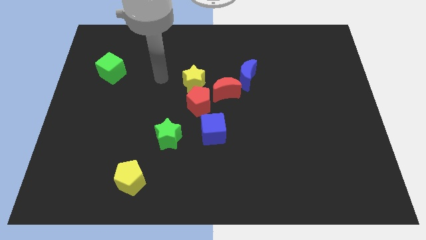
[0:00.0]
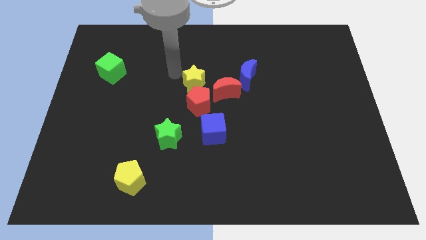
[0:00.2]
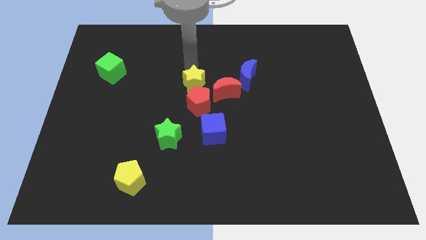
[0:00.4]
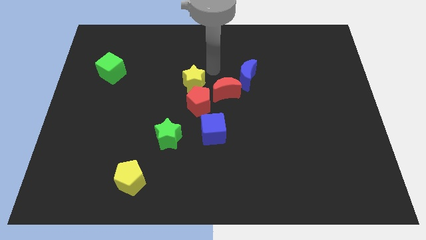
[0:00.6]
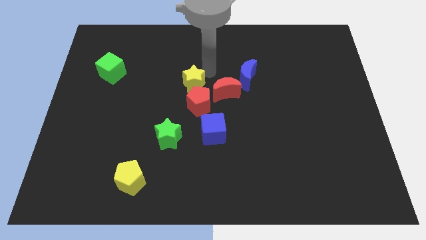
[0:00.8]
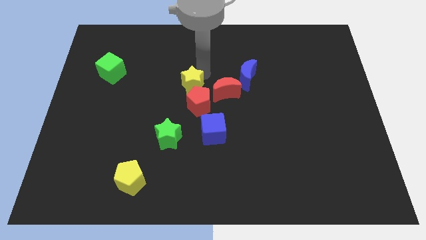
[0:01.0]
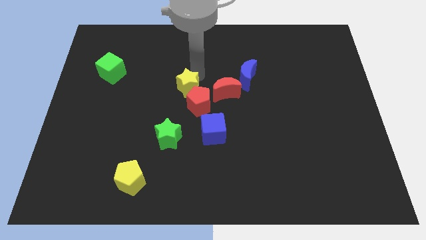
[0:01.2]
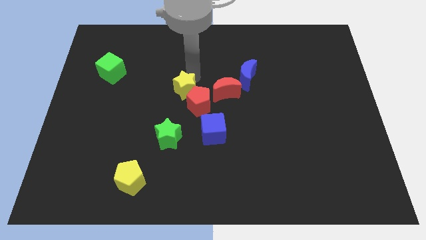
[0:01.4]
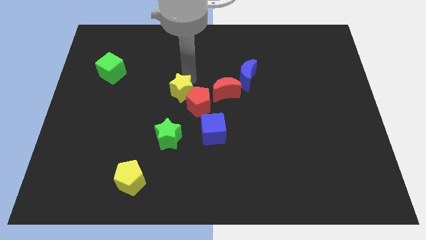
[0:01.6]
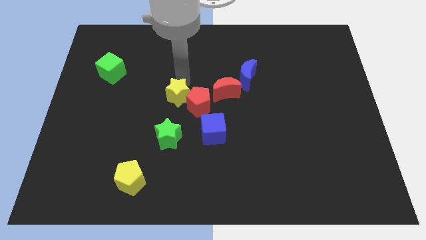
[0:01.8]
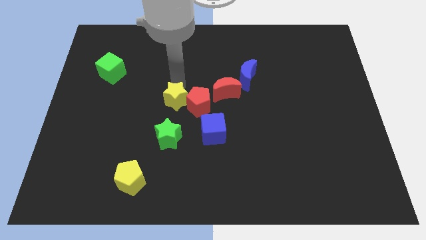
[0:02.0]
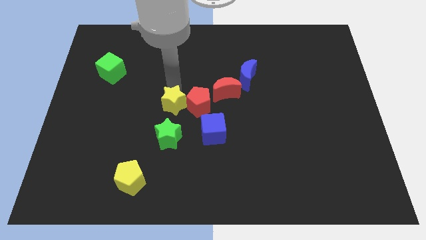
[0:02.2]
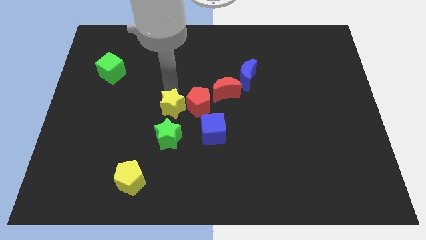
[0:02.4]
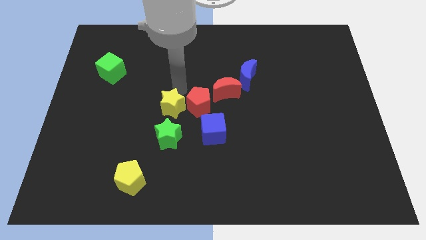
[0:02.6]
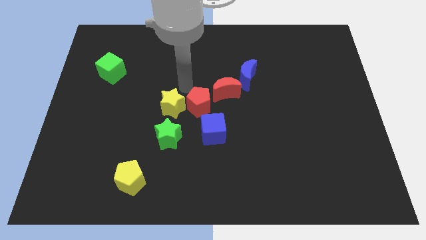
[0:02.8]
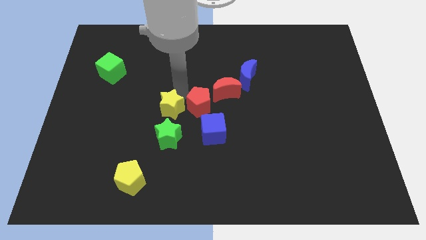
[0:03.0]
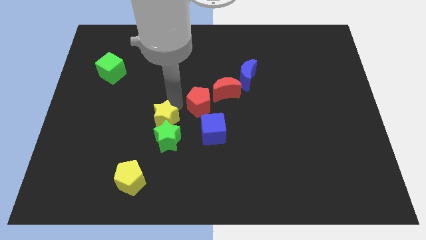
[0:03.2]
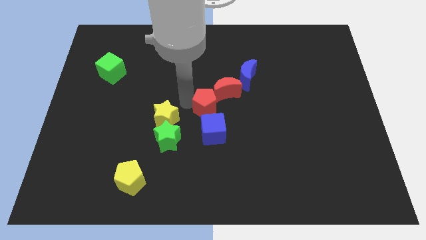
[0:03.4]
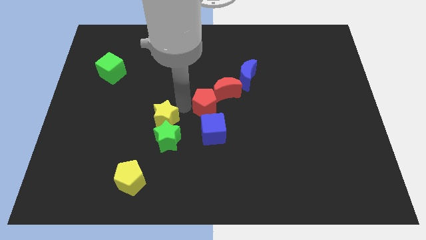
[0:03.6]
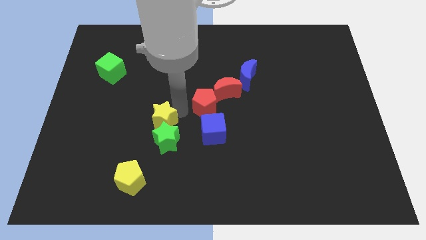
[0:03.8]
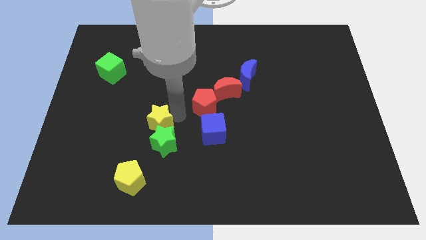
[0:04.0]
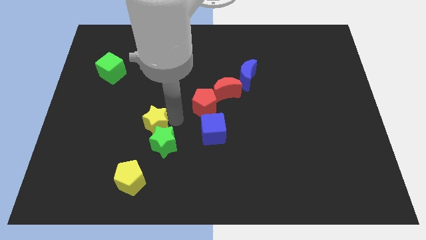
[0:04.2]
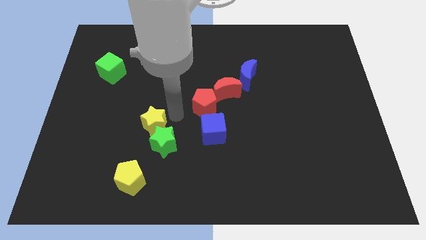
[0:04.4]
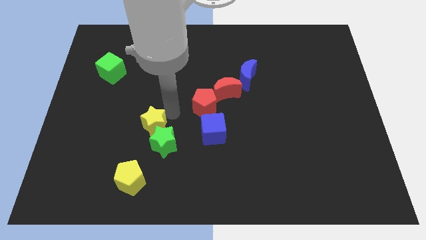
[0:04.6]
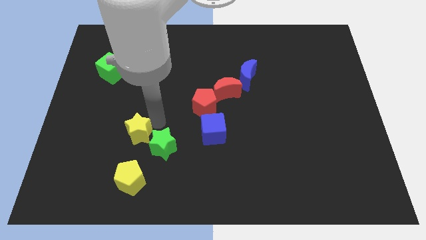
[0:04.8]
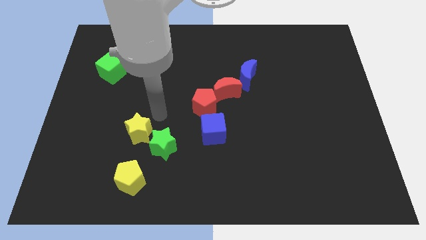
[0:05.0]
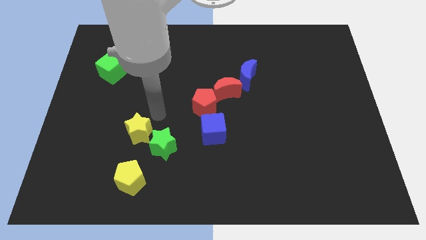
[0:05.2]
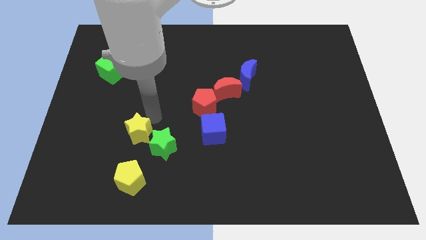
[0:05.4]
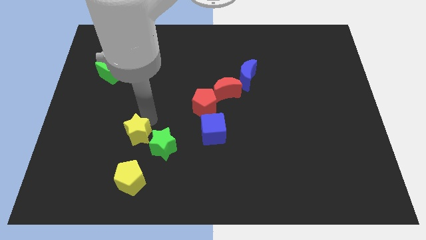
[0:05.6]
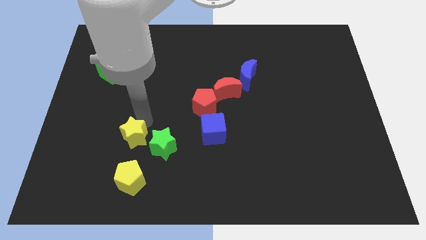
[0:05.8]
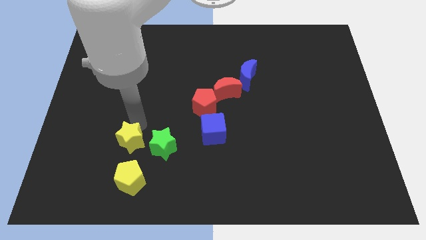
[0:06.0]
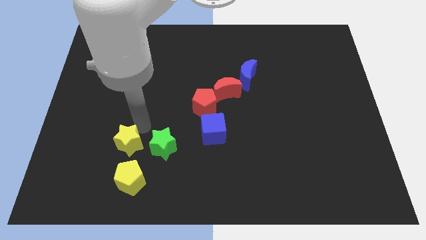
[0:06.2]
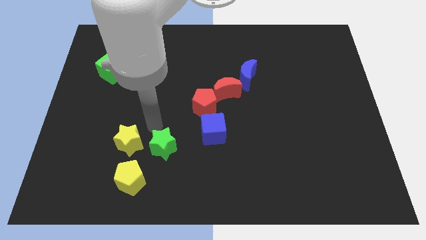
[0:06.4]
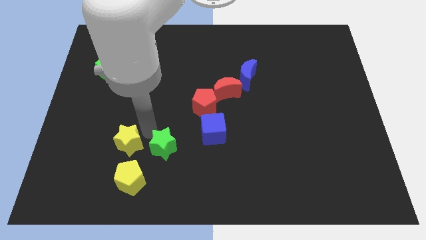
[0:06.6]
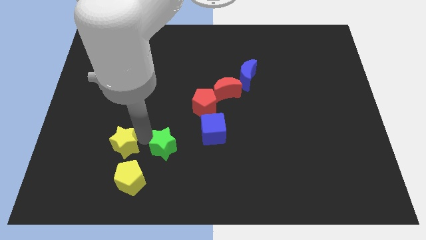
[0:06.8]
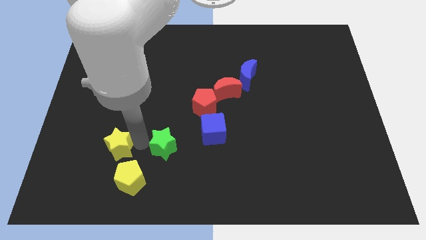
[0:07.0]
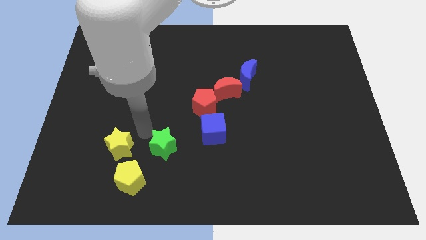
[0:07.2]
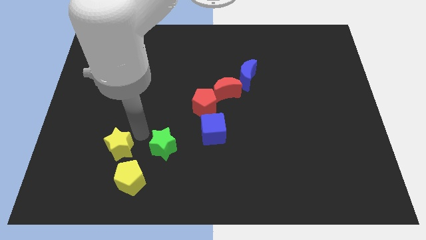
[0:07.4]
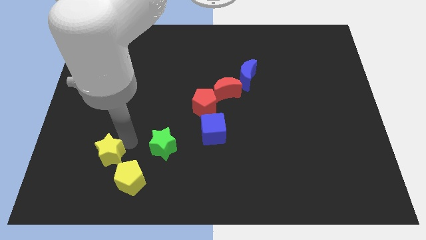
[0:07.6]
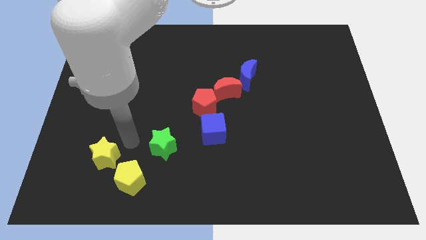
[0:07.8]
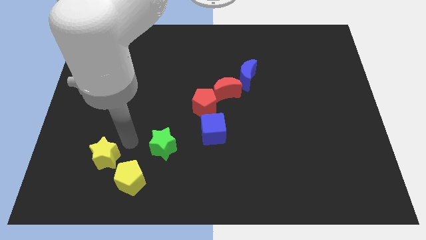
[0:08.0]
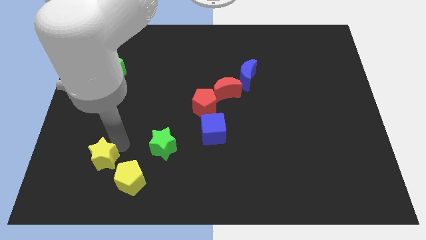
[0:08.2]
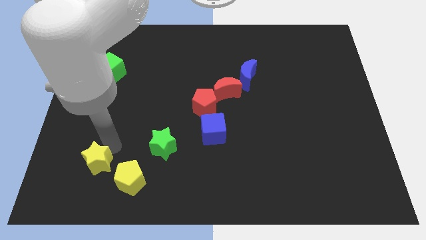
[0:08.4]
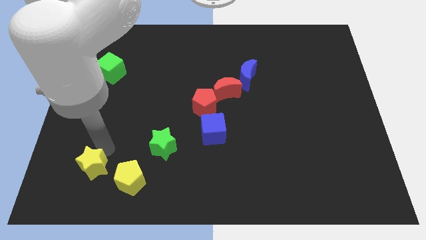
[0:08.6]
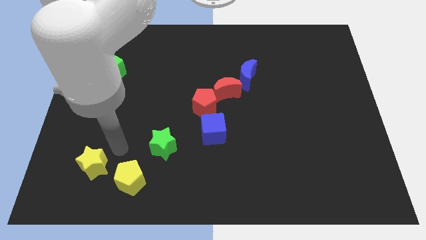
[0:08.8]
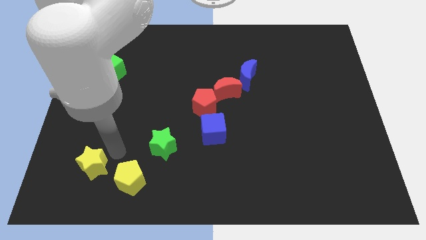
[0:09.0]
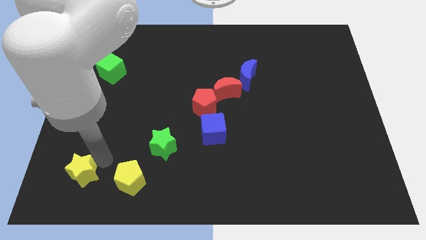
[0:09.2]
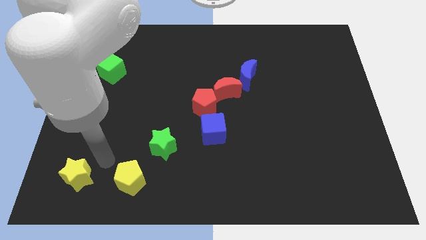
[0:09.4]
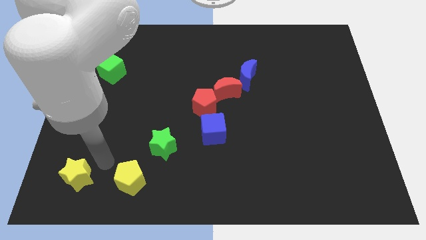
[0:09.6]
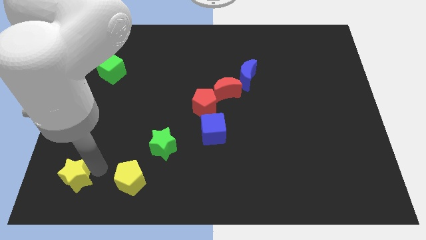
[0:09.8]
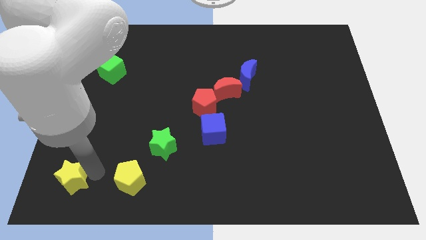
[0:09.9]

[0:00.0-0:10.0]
move the yellow star to the bottom left corner

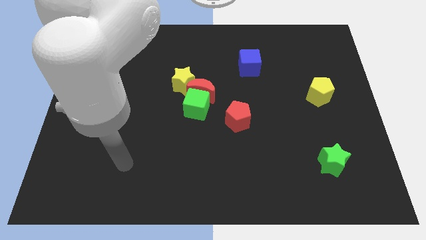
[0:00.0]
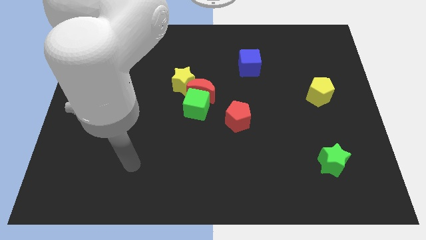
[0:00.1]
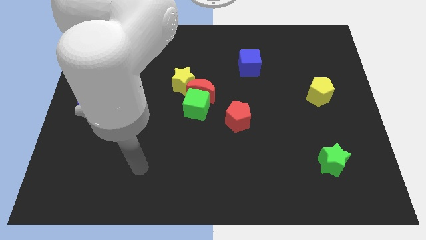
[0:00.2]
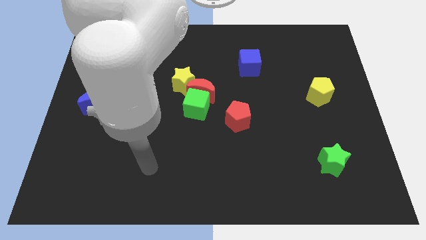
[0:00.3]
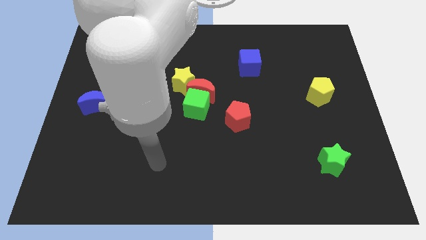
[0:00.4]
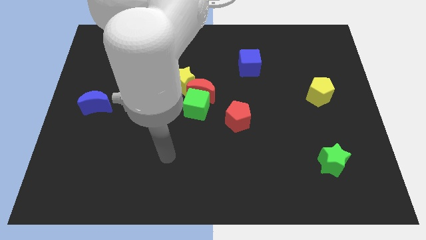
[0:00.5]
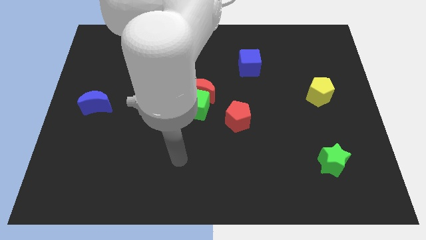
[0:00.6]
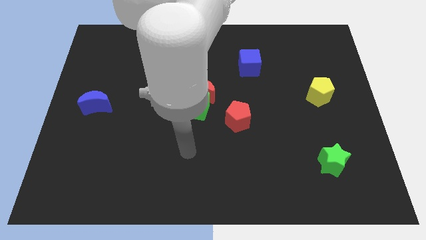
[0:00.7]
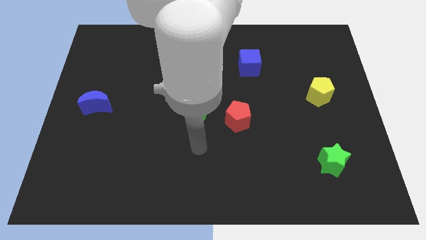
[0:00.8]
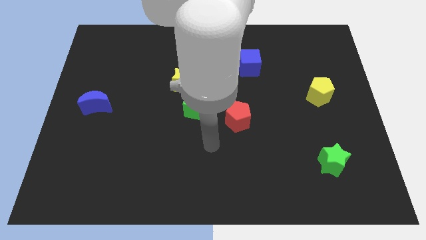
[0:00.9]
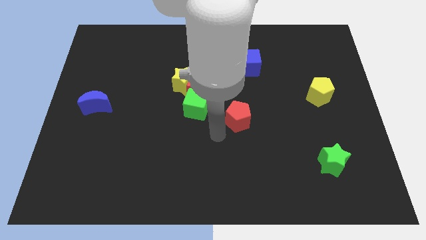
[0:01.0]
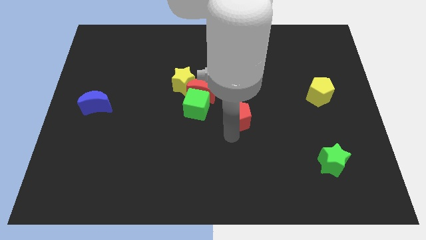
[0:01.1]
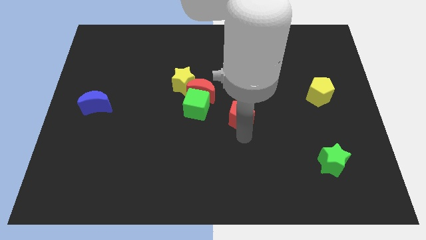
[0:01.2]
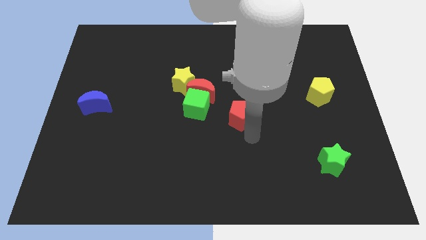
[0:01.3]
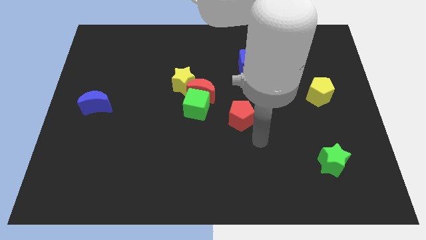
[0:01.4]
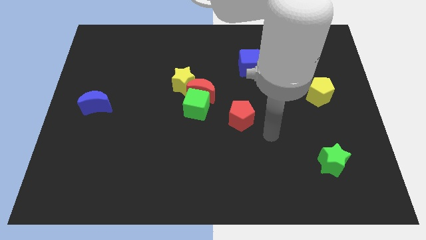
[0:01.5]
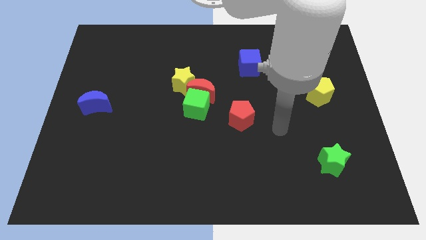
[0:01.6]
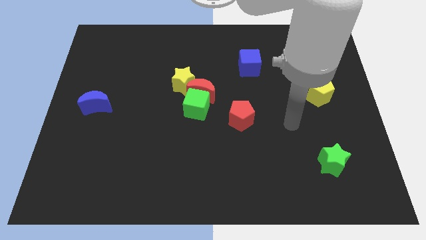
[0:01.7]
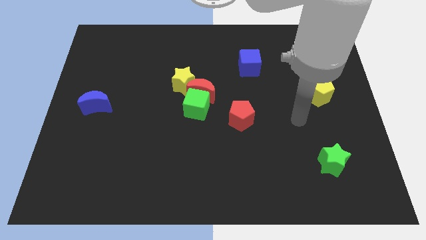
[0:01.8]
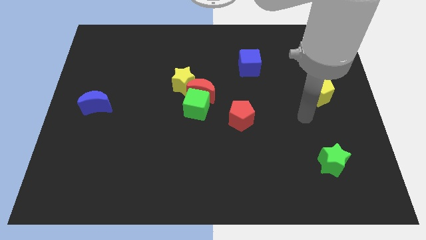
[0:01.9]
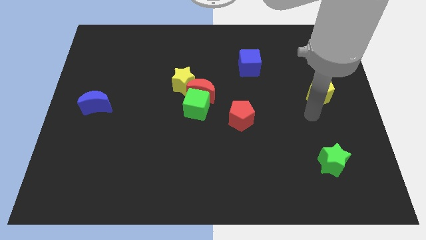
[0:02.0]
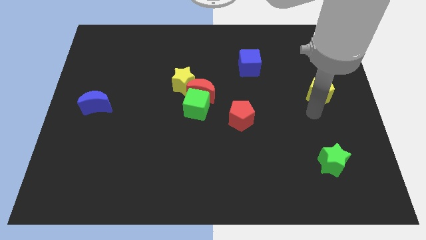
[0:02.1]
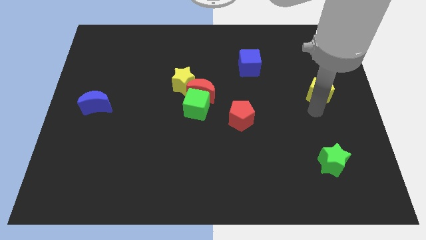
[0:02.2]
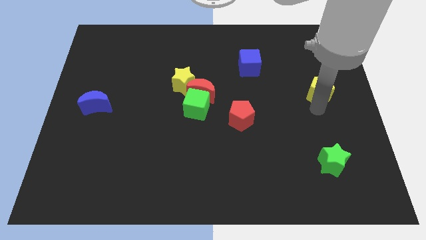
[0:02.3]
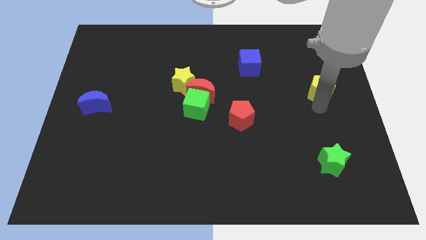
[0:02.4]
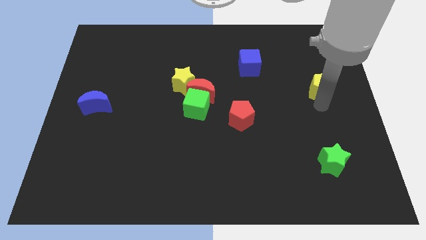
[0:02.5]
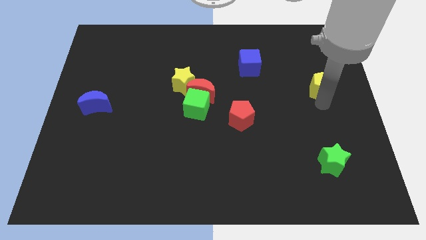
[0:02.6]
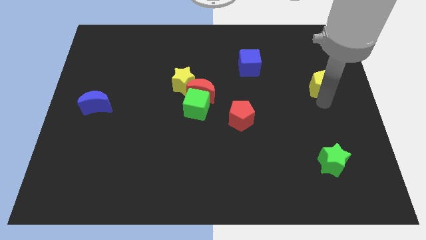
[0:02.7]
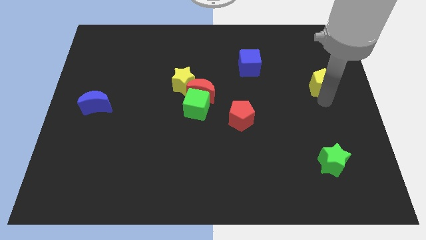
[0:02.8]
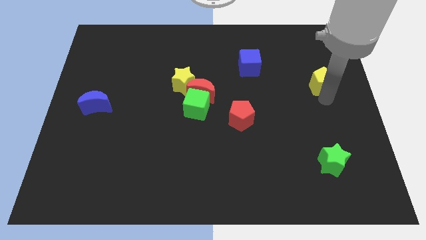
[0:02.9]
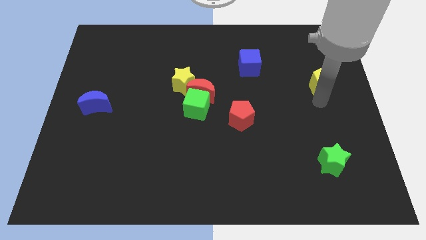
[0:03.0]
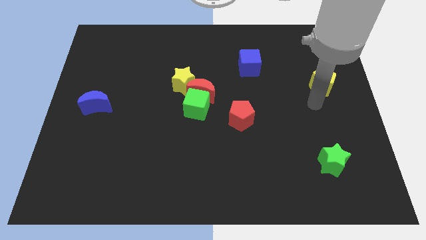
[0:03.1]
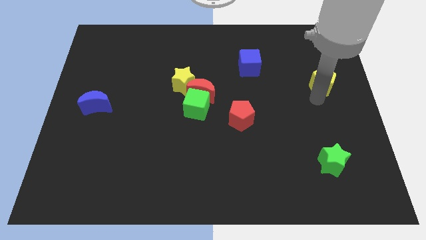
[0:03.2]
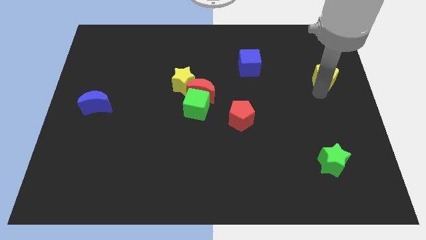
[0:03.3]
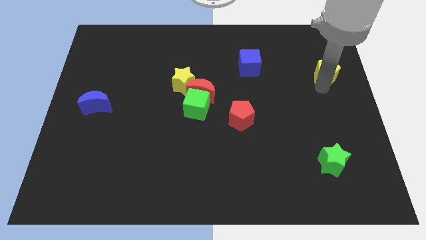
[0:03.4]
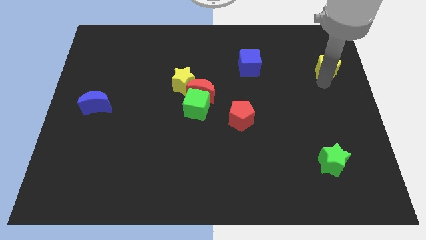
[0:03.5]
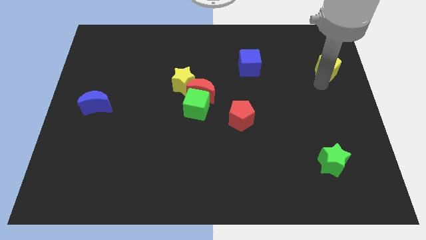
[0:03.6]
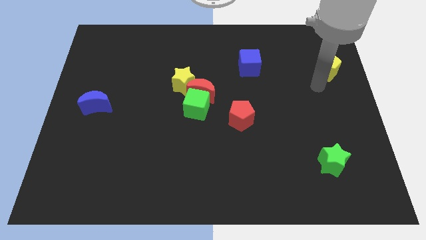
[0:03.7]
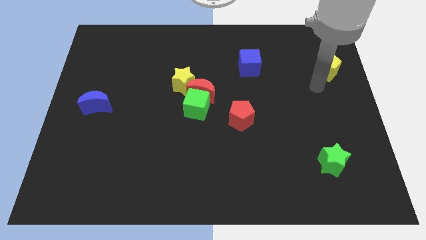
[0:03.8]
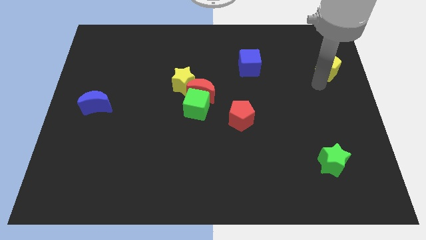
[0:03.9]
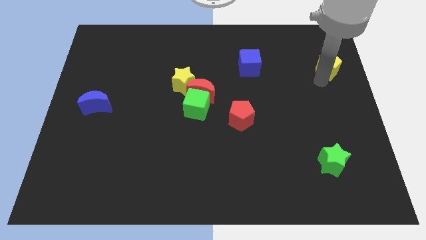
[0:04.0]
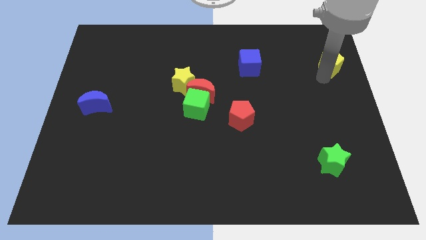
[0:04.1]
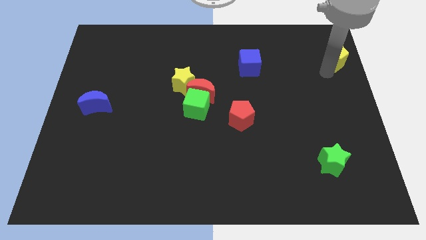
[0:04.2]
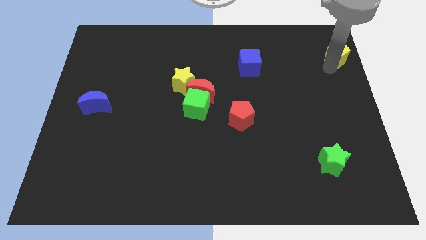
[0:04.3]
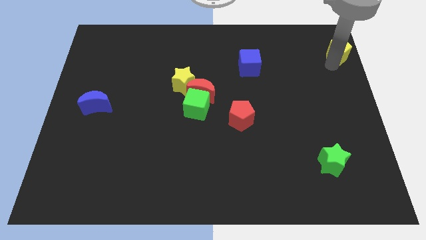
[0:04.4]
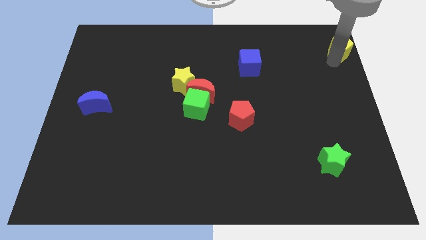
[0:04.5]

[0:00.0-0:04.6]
push the yellow pentagon to the top right of the board
